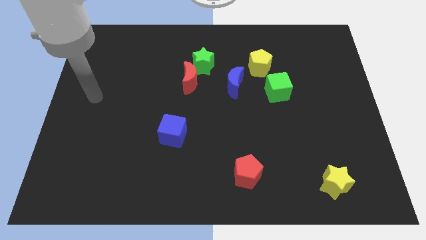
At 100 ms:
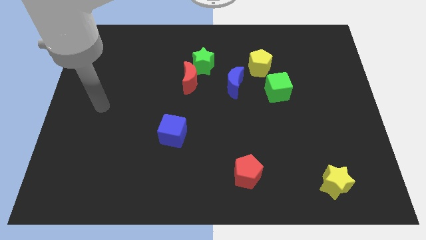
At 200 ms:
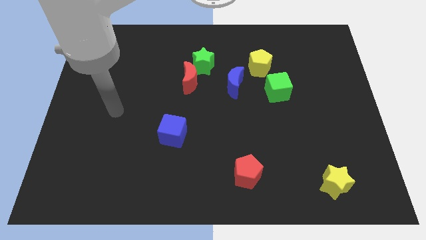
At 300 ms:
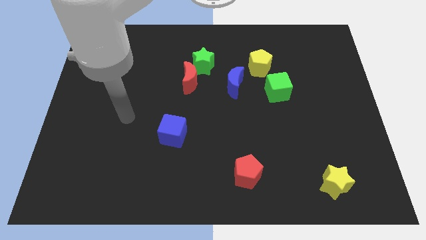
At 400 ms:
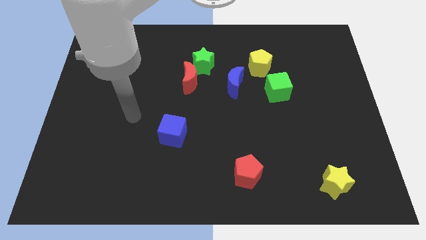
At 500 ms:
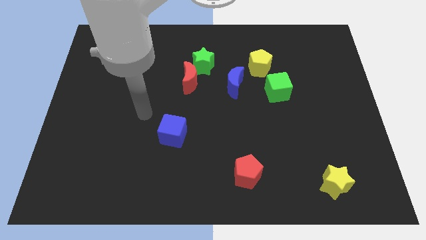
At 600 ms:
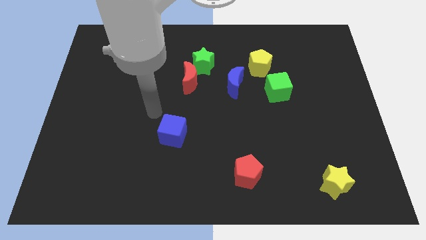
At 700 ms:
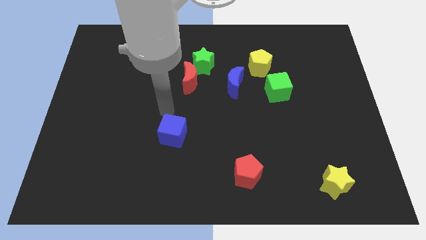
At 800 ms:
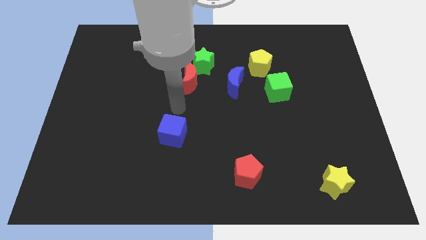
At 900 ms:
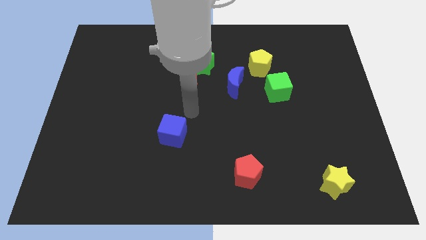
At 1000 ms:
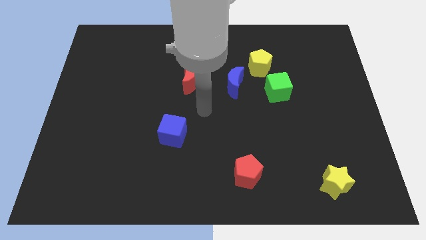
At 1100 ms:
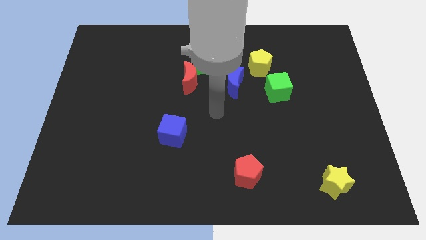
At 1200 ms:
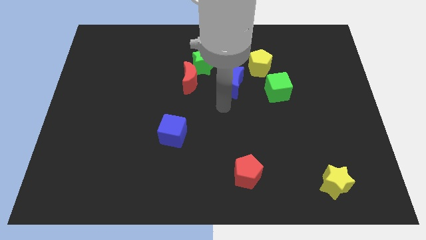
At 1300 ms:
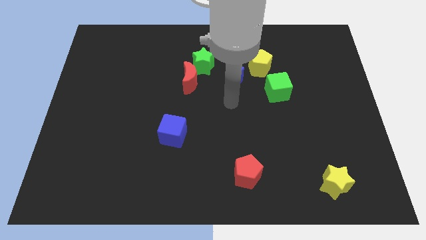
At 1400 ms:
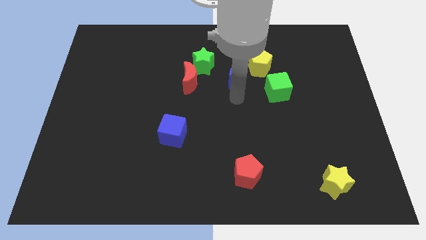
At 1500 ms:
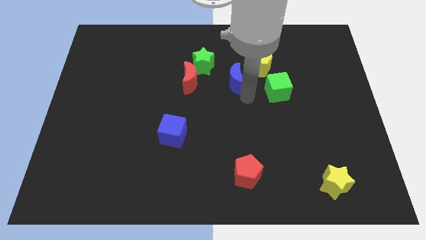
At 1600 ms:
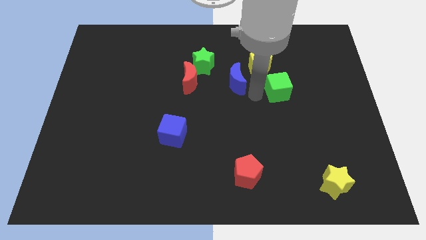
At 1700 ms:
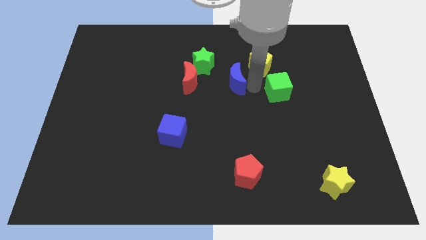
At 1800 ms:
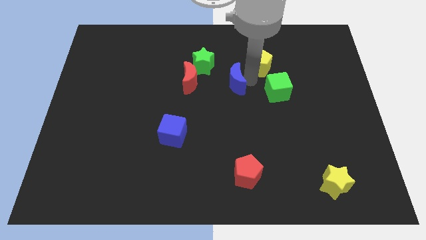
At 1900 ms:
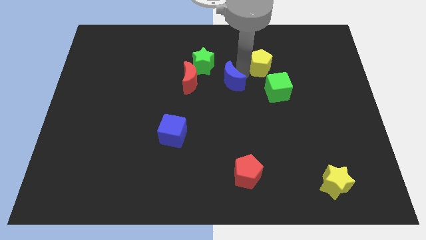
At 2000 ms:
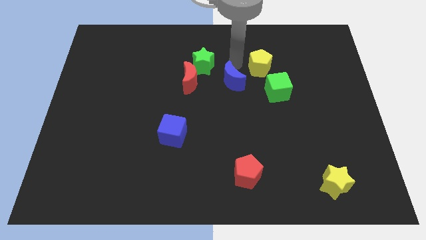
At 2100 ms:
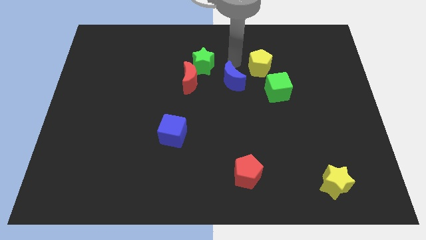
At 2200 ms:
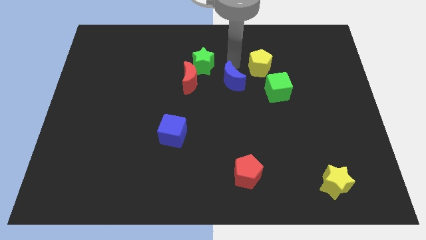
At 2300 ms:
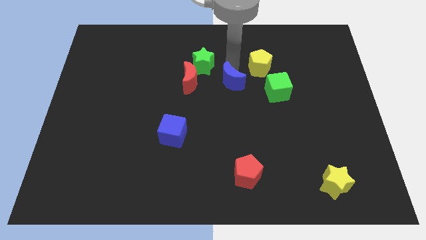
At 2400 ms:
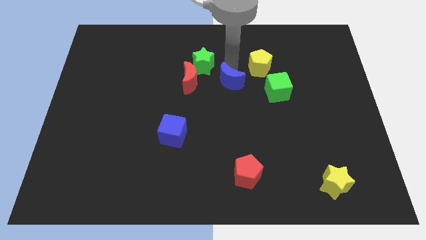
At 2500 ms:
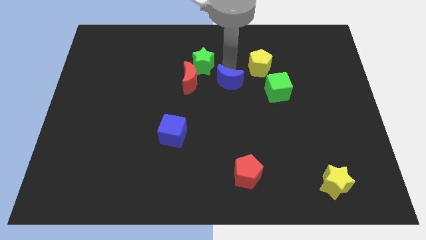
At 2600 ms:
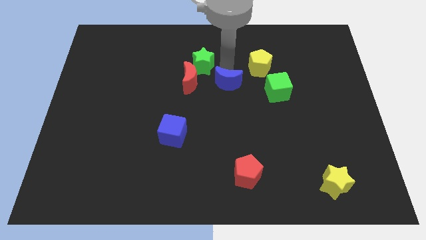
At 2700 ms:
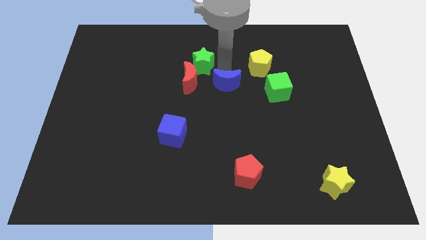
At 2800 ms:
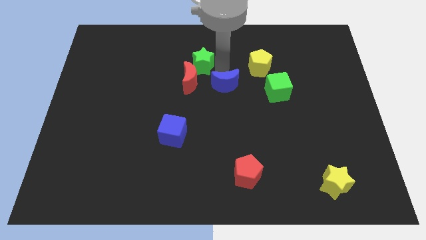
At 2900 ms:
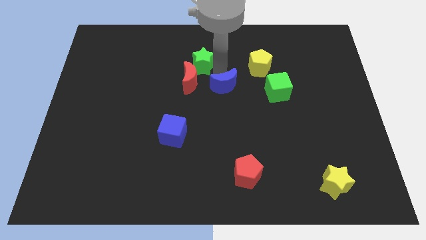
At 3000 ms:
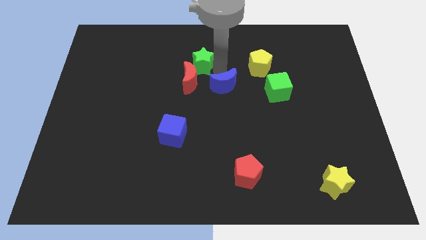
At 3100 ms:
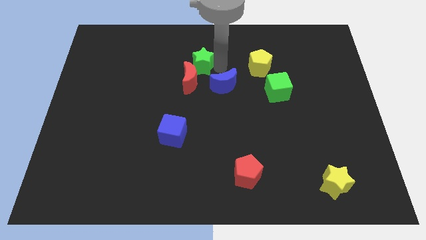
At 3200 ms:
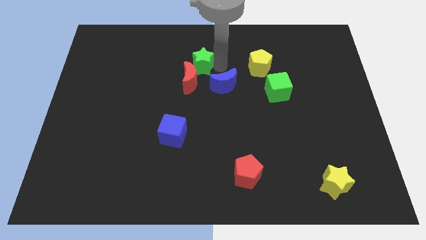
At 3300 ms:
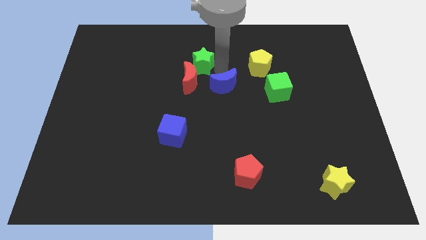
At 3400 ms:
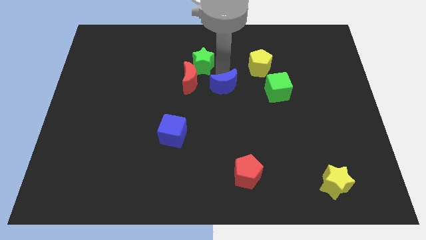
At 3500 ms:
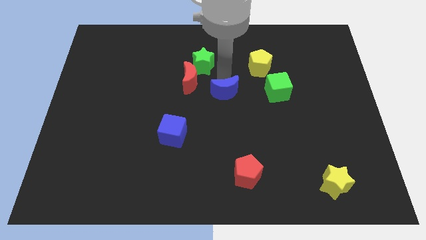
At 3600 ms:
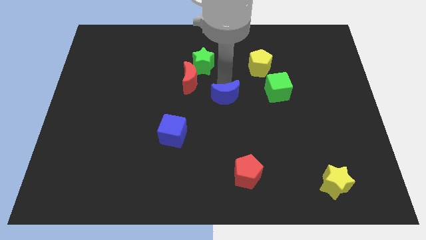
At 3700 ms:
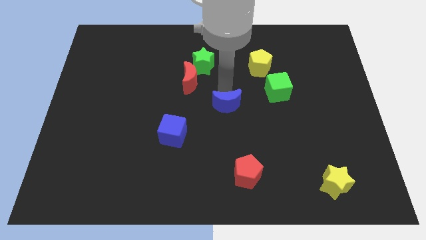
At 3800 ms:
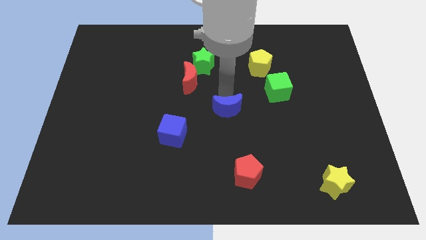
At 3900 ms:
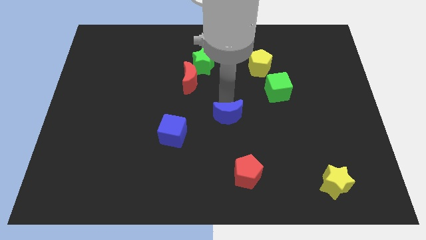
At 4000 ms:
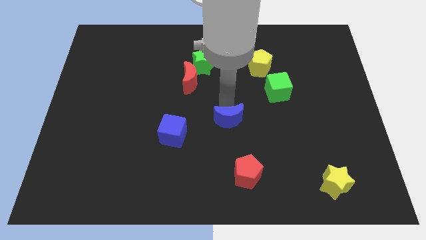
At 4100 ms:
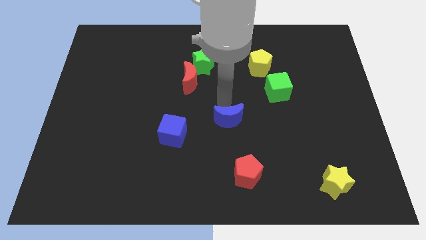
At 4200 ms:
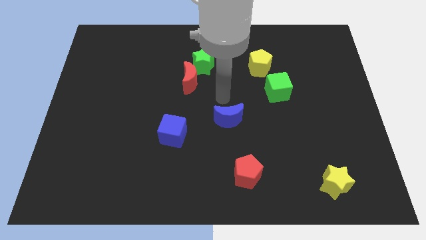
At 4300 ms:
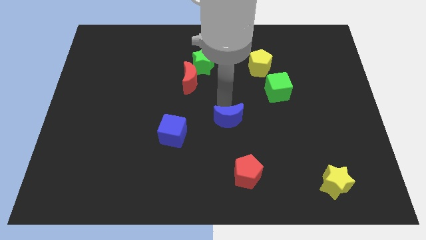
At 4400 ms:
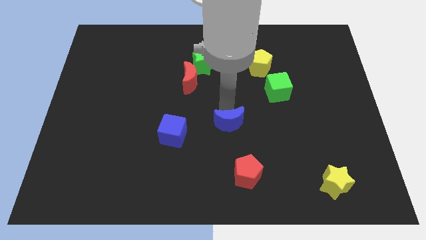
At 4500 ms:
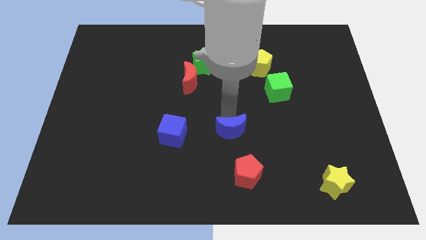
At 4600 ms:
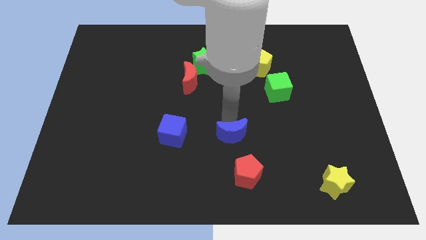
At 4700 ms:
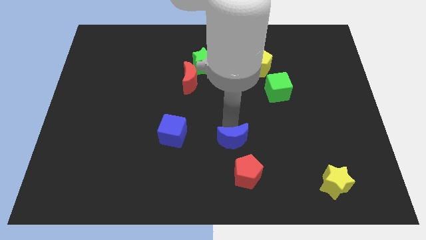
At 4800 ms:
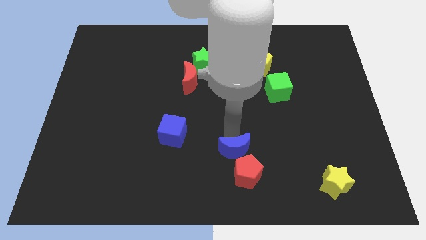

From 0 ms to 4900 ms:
put the blue moon towards the red pentagon

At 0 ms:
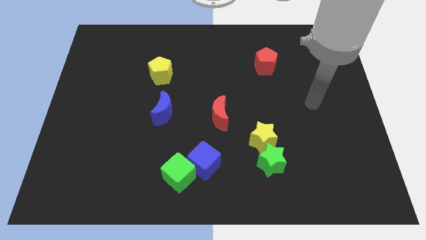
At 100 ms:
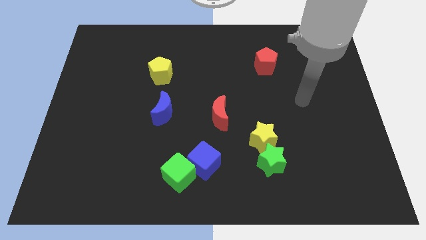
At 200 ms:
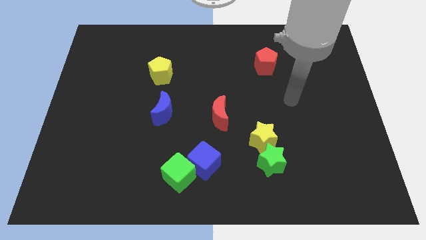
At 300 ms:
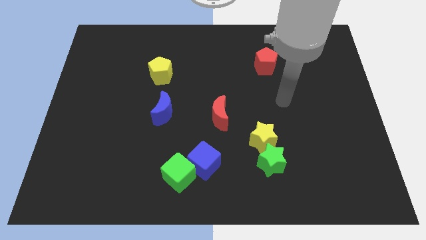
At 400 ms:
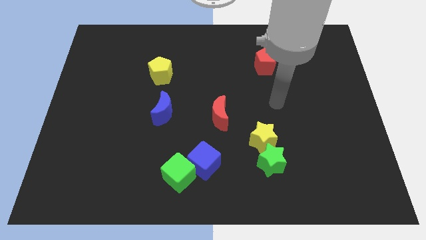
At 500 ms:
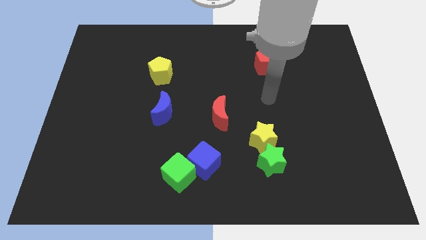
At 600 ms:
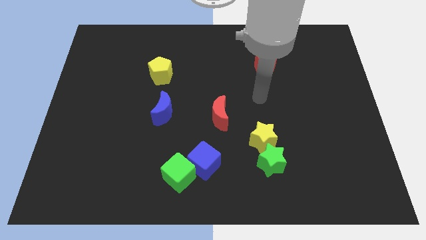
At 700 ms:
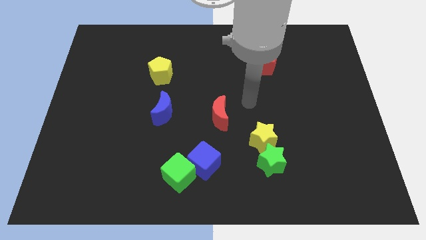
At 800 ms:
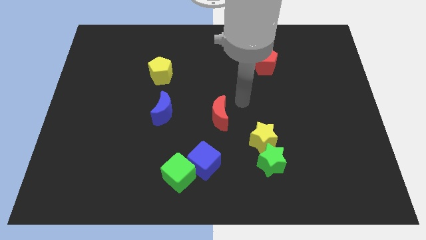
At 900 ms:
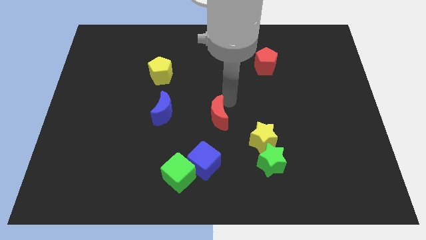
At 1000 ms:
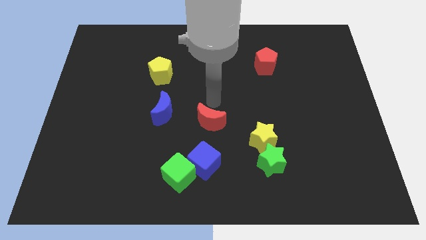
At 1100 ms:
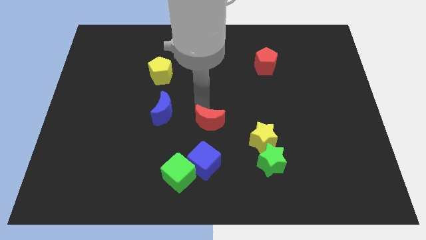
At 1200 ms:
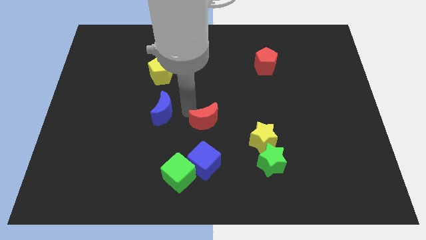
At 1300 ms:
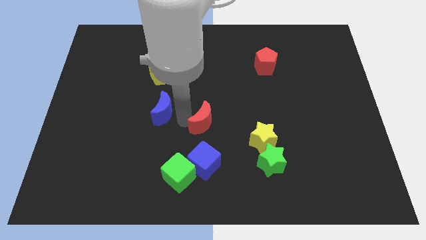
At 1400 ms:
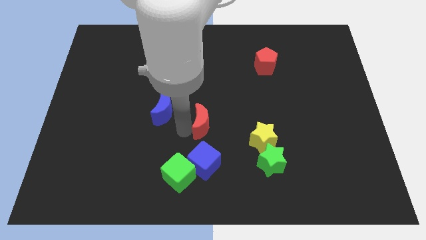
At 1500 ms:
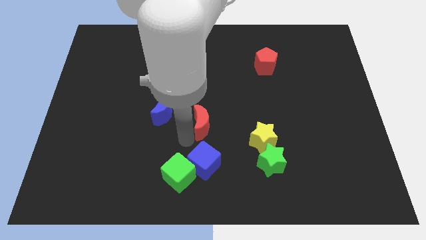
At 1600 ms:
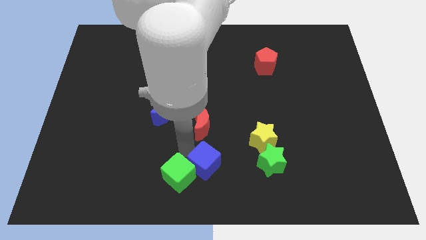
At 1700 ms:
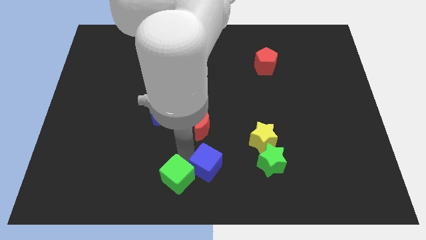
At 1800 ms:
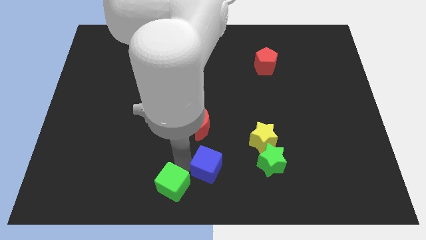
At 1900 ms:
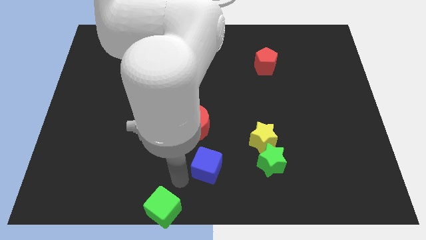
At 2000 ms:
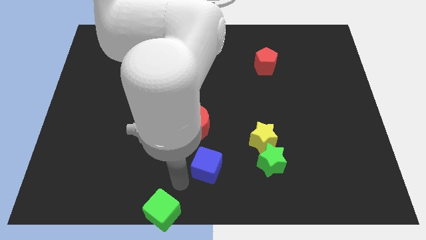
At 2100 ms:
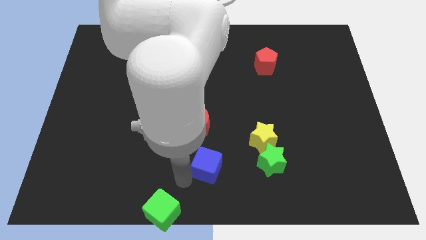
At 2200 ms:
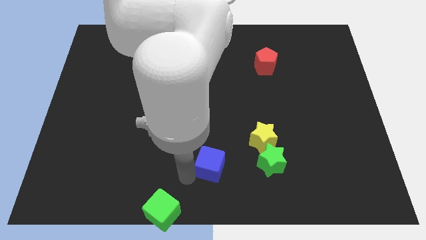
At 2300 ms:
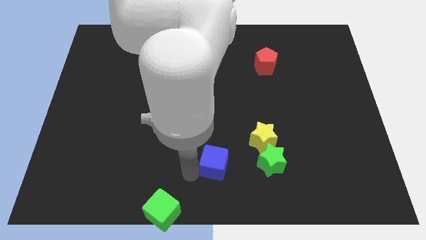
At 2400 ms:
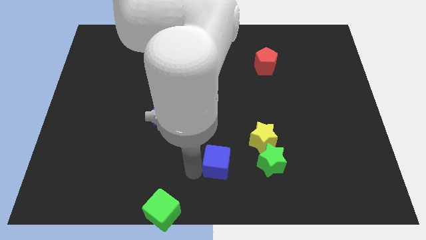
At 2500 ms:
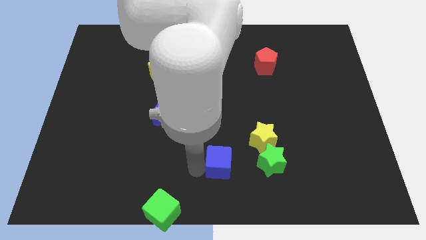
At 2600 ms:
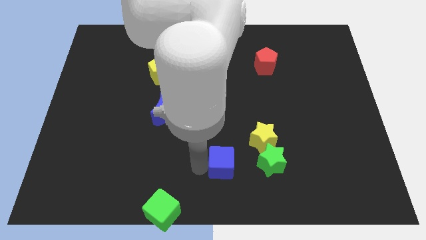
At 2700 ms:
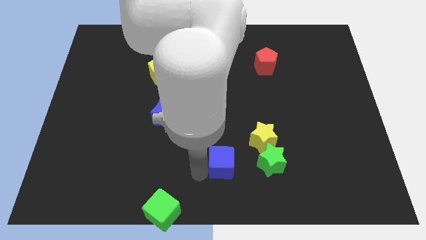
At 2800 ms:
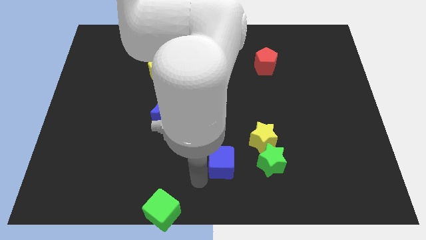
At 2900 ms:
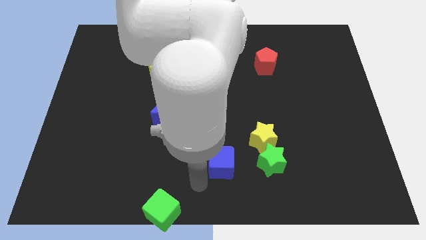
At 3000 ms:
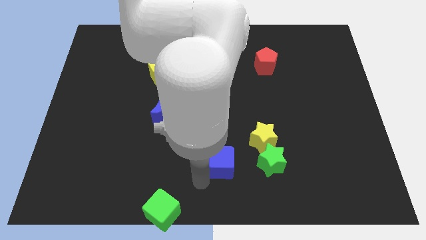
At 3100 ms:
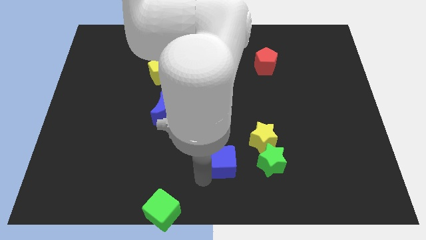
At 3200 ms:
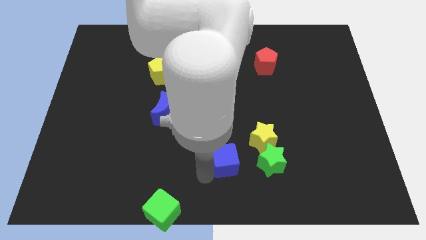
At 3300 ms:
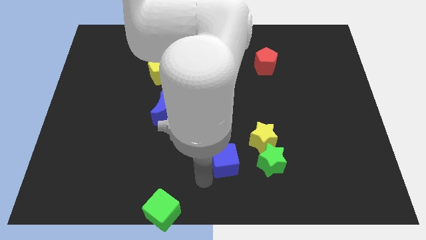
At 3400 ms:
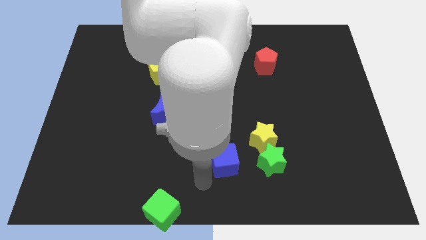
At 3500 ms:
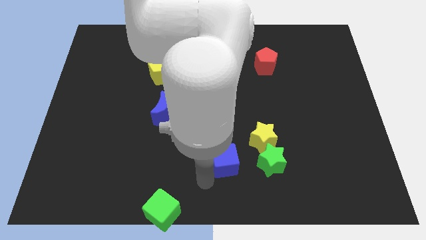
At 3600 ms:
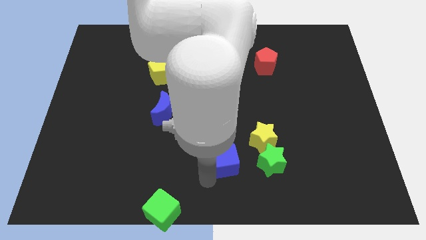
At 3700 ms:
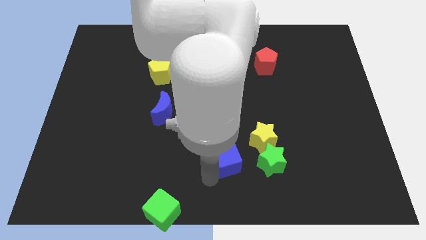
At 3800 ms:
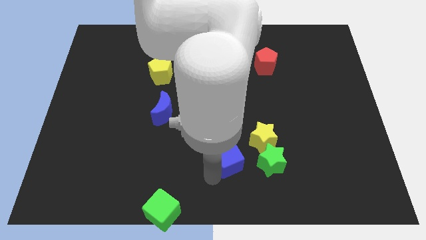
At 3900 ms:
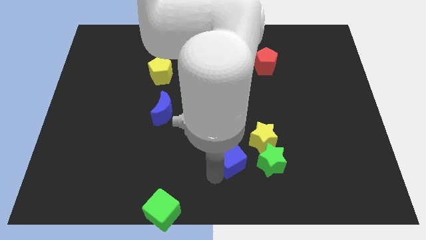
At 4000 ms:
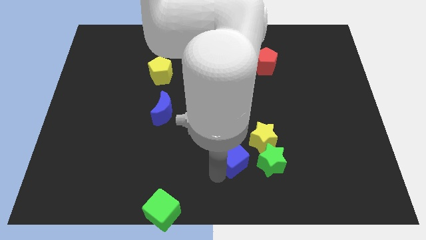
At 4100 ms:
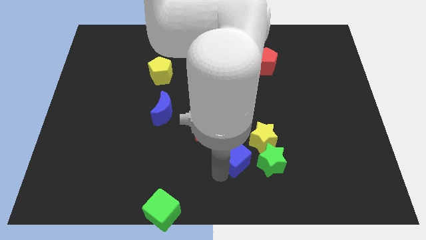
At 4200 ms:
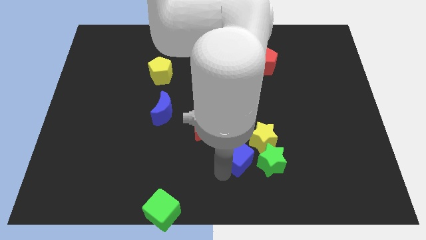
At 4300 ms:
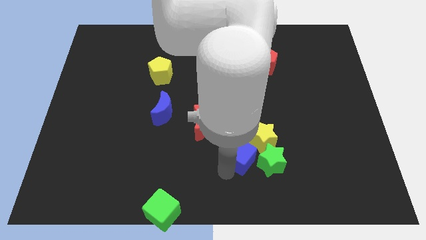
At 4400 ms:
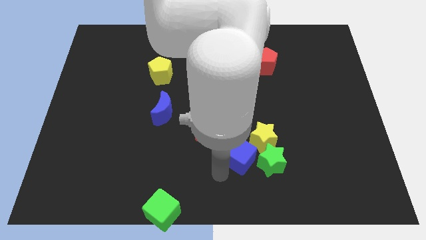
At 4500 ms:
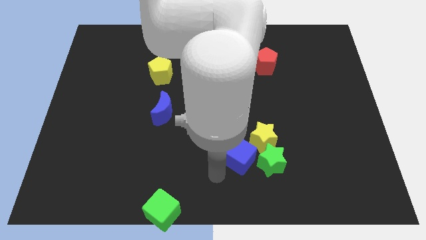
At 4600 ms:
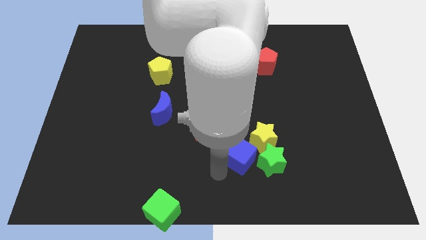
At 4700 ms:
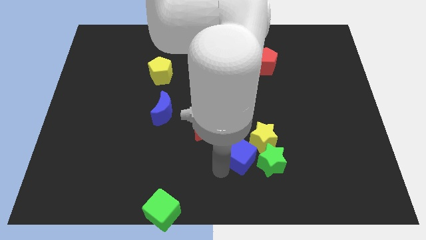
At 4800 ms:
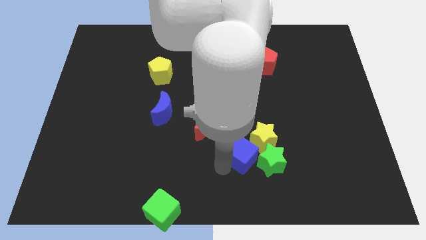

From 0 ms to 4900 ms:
push the blue cube next to the yellow star
